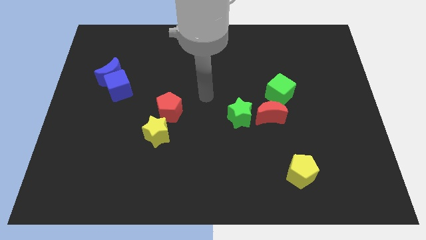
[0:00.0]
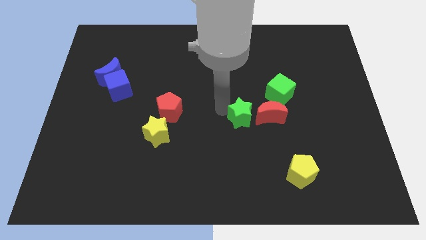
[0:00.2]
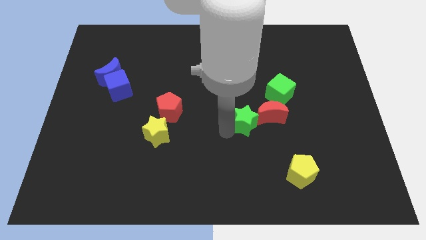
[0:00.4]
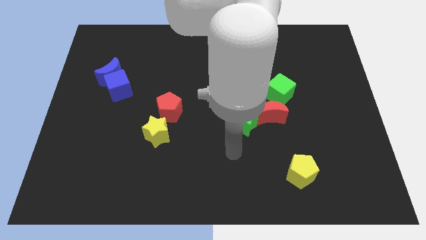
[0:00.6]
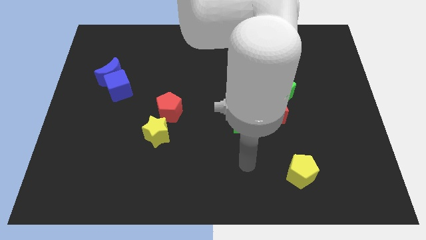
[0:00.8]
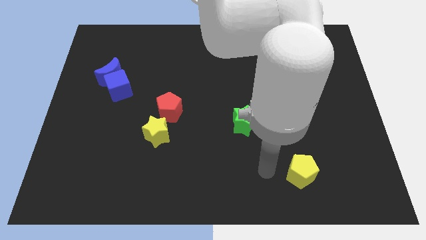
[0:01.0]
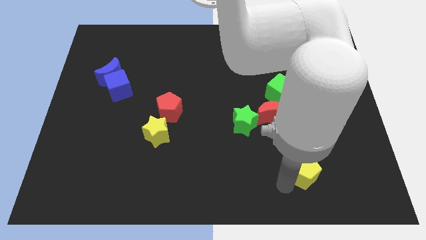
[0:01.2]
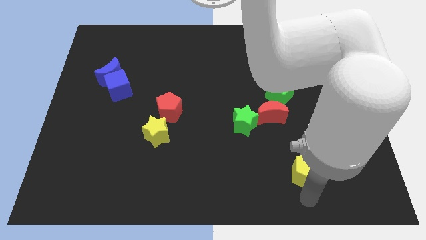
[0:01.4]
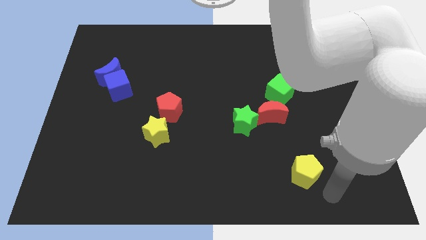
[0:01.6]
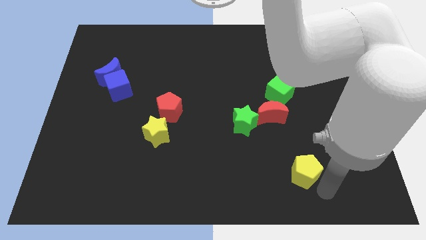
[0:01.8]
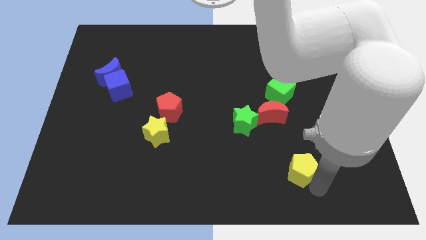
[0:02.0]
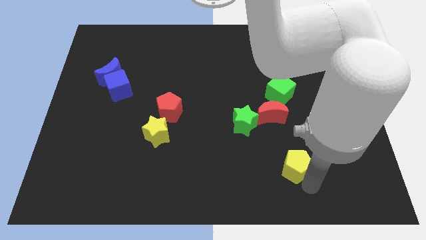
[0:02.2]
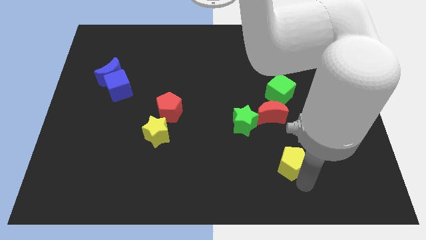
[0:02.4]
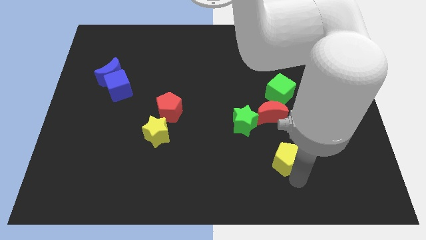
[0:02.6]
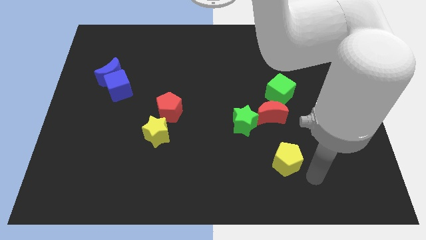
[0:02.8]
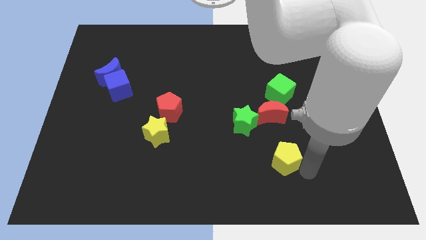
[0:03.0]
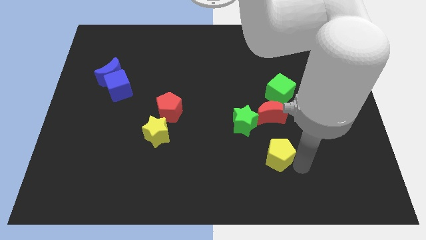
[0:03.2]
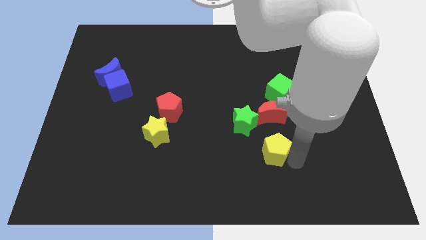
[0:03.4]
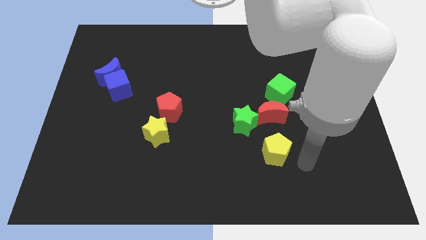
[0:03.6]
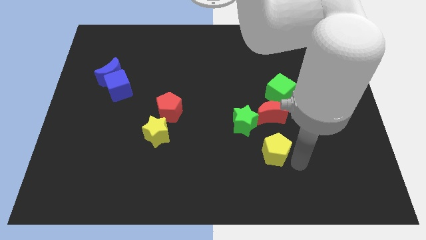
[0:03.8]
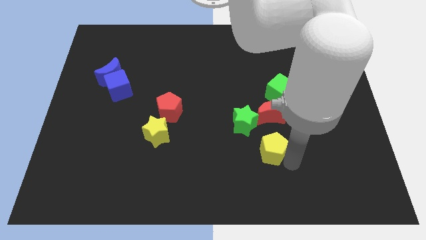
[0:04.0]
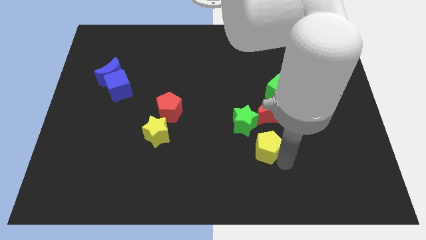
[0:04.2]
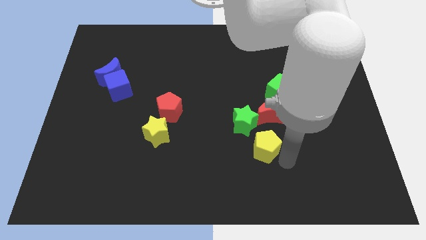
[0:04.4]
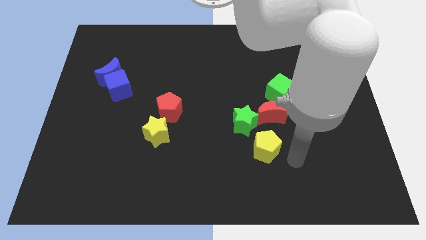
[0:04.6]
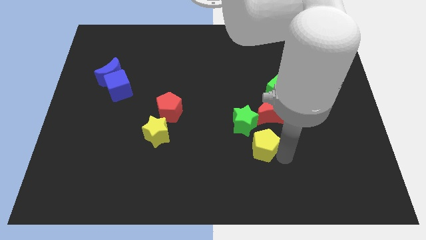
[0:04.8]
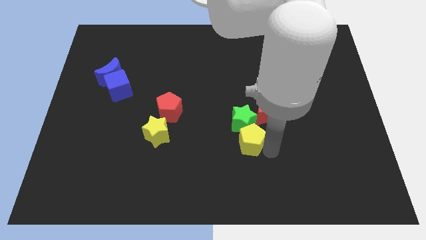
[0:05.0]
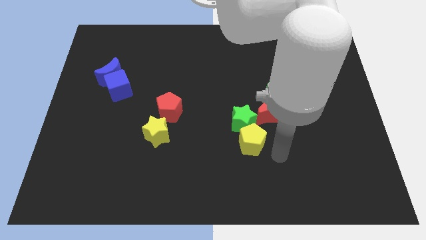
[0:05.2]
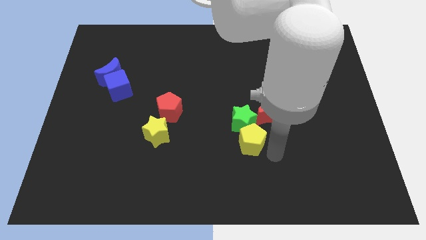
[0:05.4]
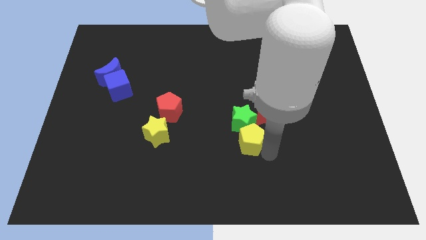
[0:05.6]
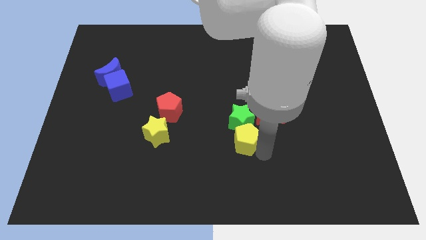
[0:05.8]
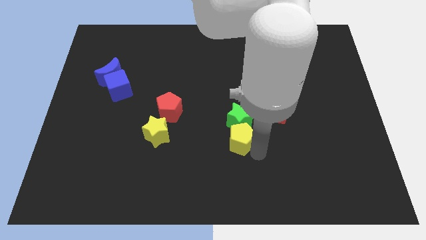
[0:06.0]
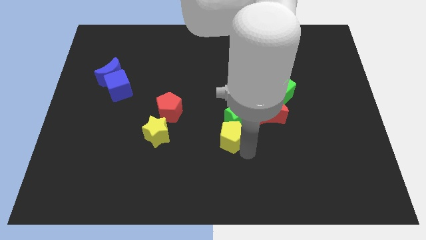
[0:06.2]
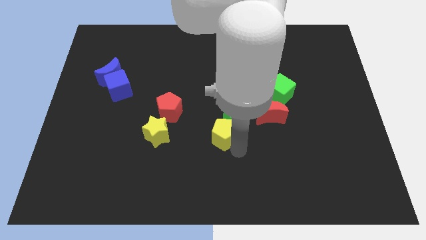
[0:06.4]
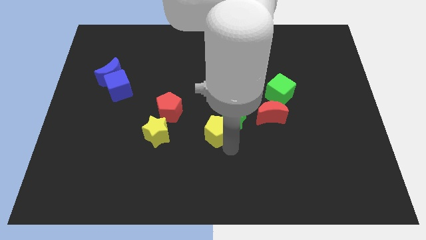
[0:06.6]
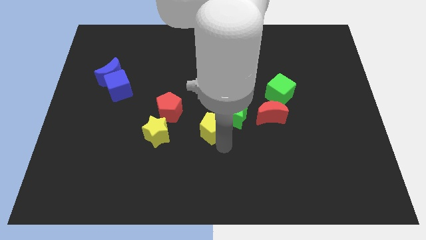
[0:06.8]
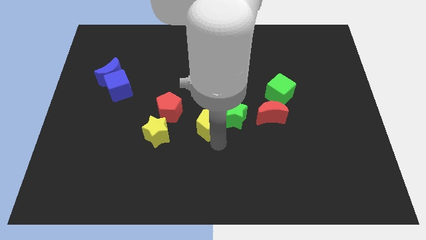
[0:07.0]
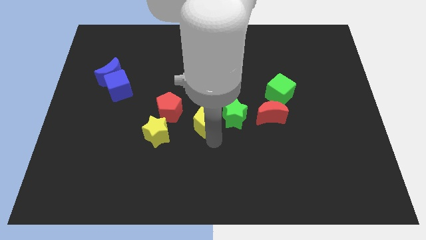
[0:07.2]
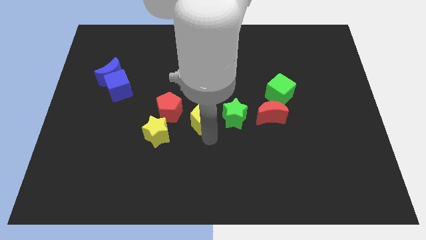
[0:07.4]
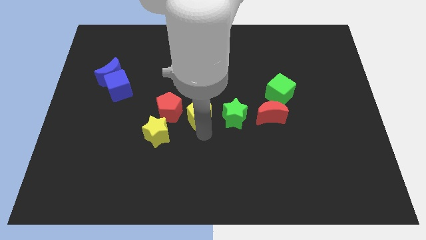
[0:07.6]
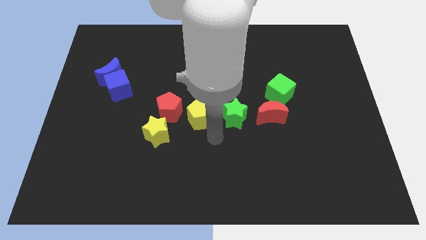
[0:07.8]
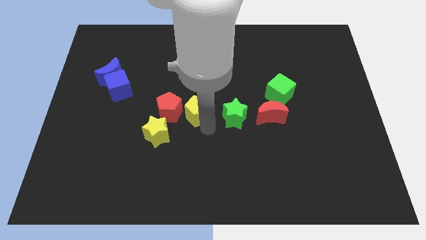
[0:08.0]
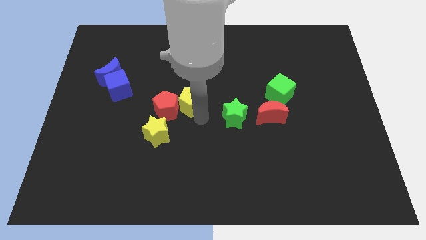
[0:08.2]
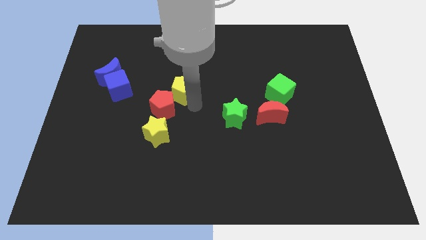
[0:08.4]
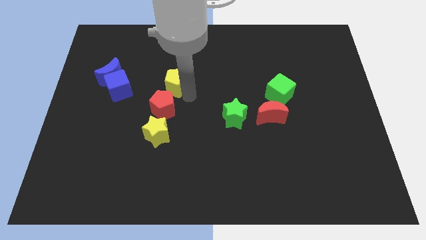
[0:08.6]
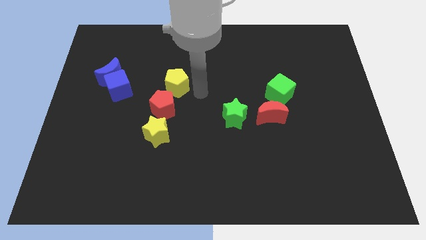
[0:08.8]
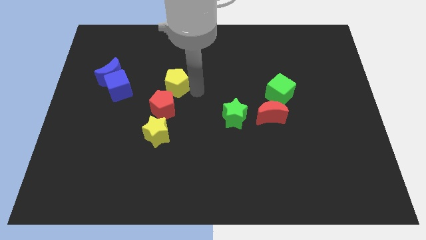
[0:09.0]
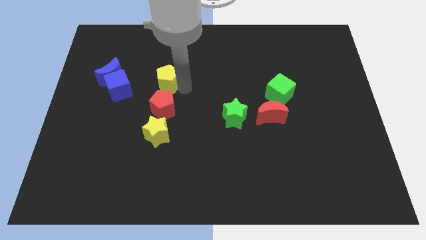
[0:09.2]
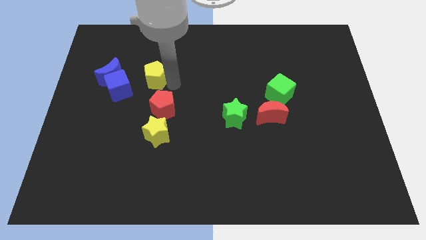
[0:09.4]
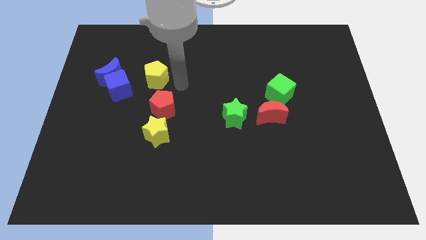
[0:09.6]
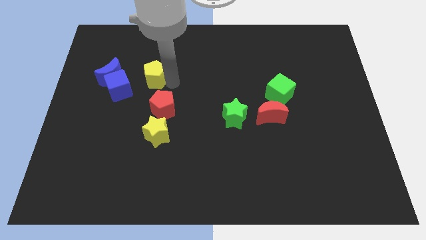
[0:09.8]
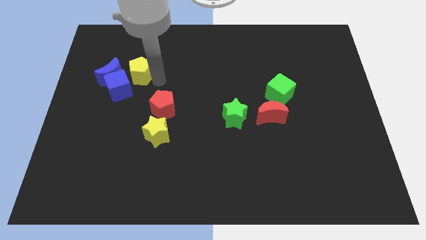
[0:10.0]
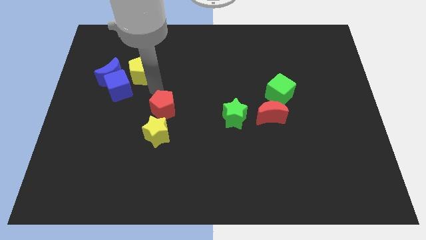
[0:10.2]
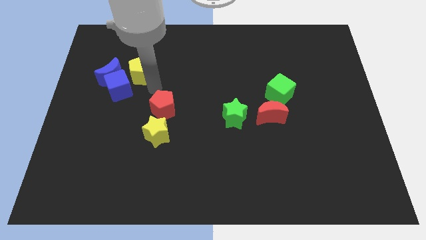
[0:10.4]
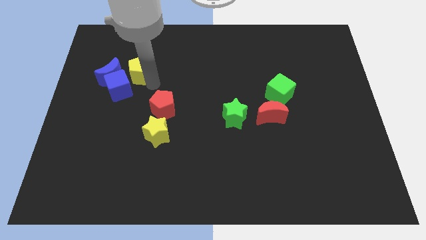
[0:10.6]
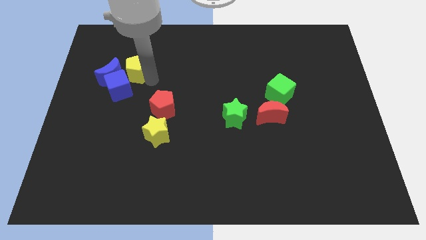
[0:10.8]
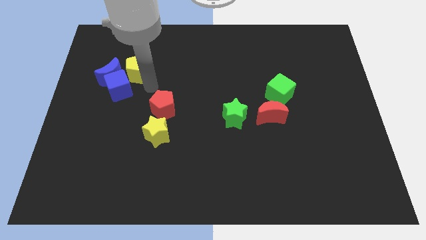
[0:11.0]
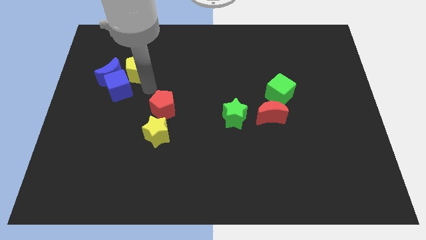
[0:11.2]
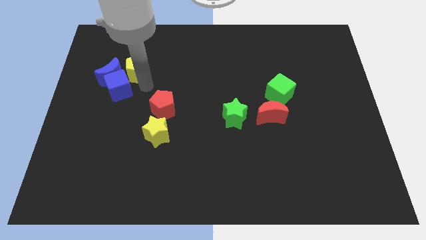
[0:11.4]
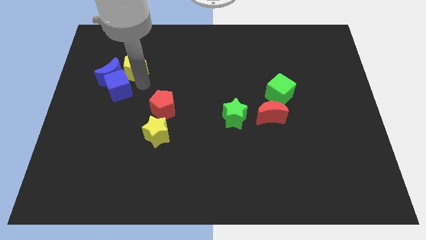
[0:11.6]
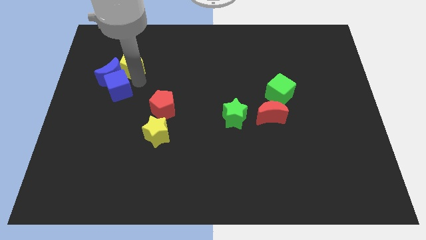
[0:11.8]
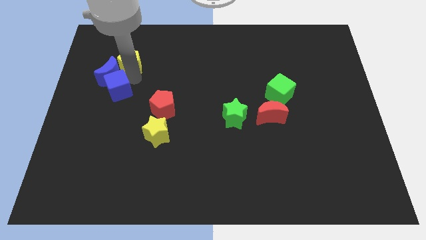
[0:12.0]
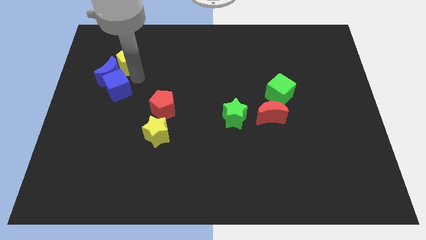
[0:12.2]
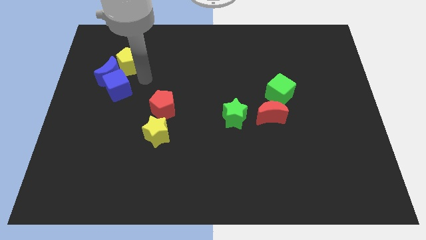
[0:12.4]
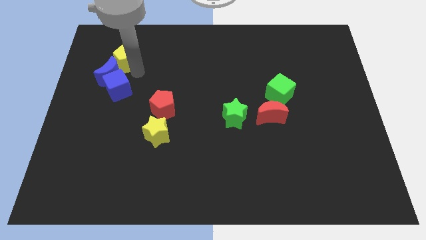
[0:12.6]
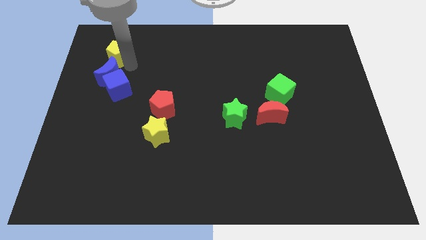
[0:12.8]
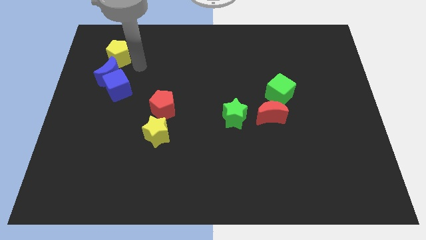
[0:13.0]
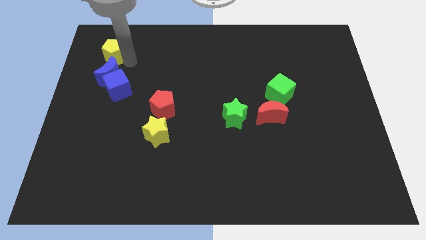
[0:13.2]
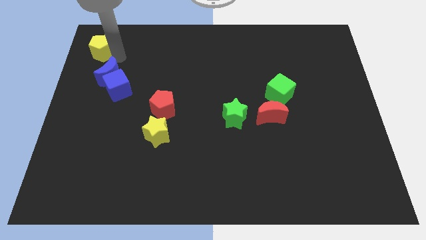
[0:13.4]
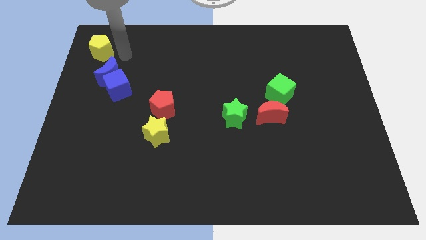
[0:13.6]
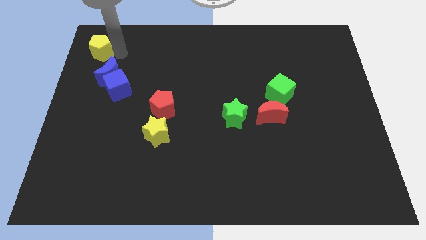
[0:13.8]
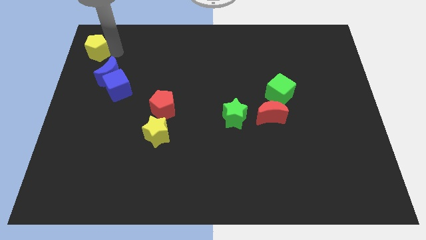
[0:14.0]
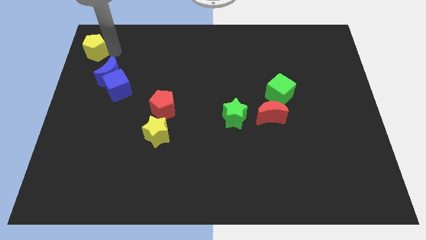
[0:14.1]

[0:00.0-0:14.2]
slide the yellow pentagon to the top left of the board
